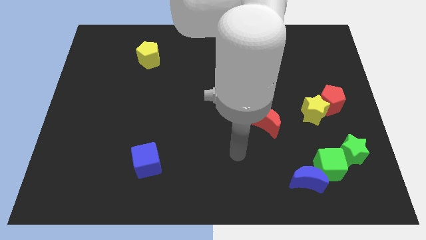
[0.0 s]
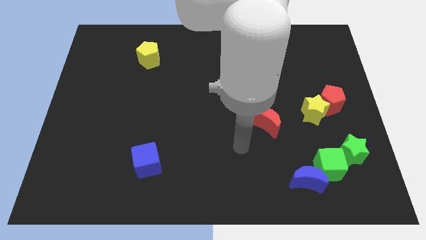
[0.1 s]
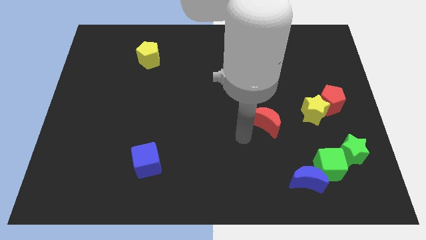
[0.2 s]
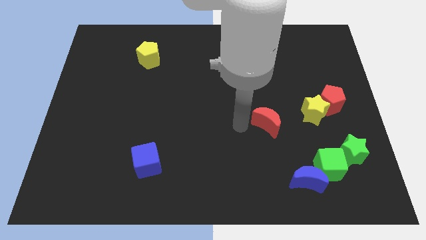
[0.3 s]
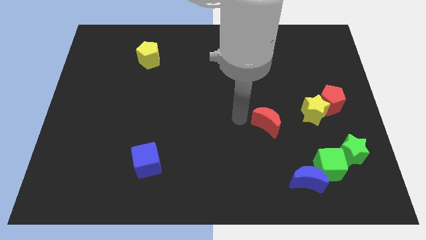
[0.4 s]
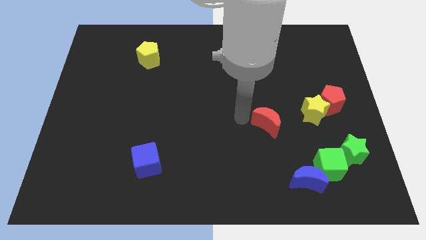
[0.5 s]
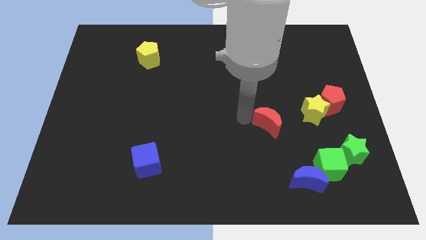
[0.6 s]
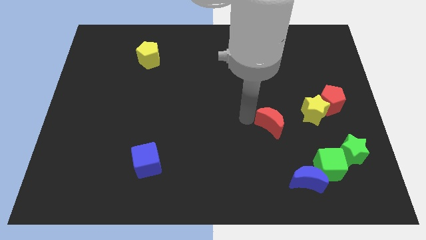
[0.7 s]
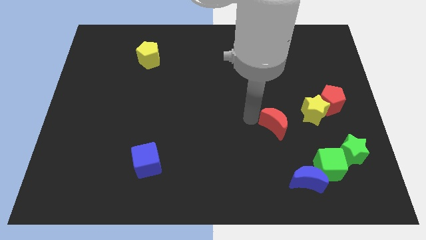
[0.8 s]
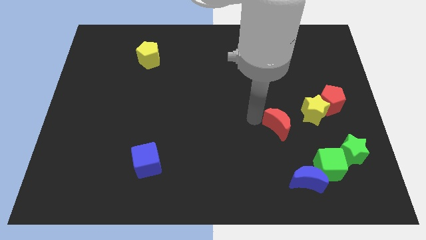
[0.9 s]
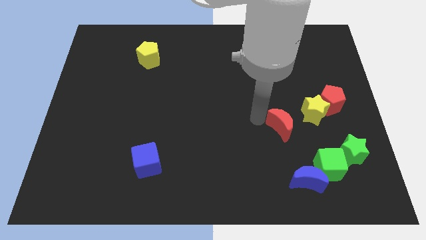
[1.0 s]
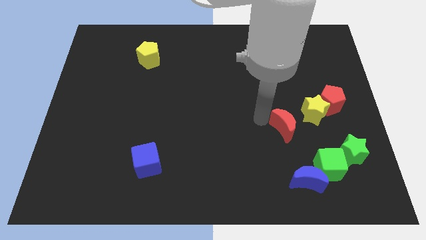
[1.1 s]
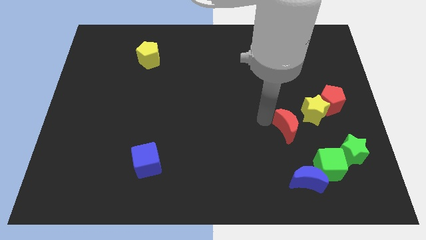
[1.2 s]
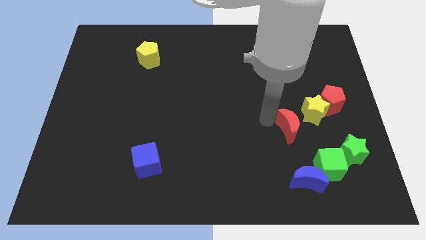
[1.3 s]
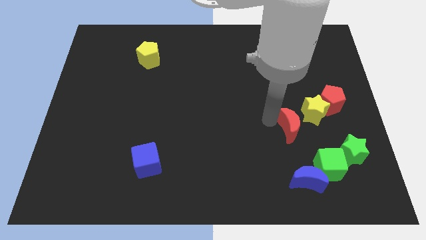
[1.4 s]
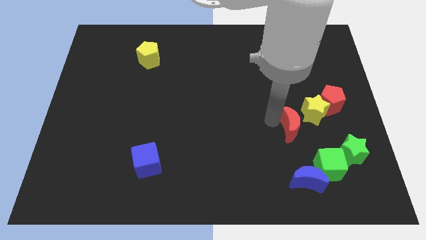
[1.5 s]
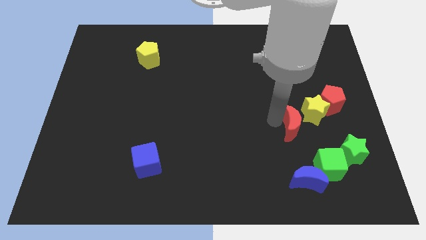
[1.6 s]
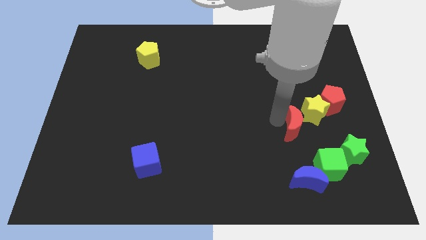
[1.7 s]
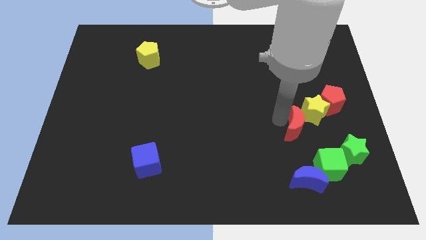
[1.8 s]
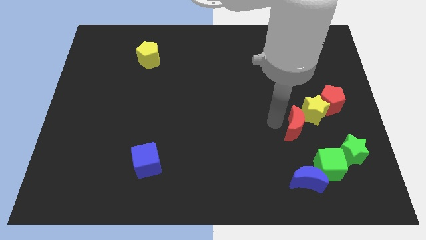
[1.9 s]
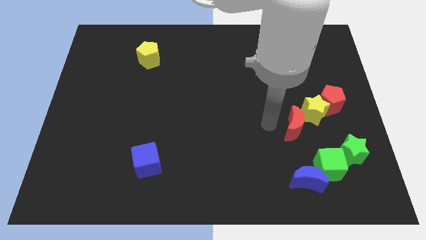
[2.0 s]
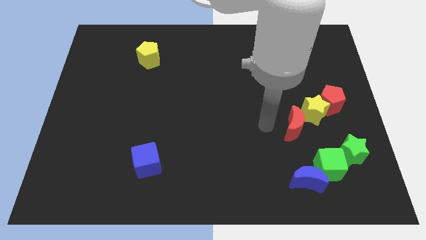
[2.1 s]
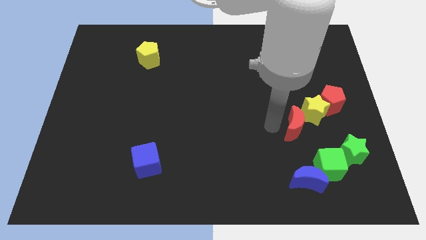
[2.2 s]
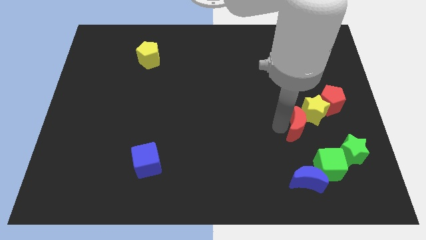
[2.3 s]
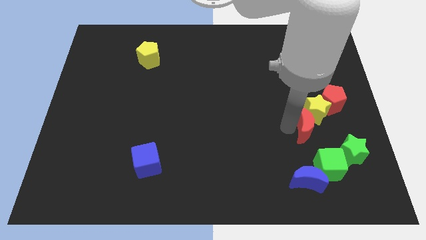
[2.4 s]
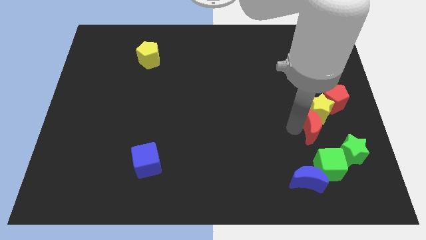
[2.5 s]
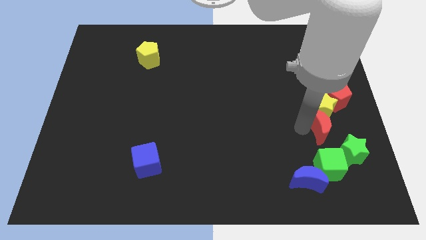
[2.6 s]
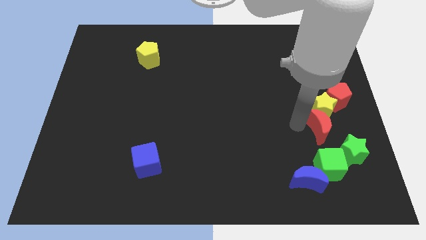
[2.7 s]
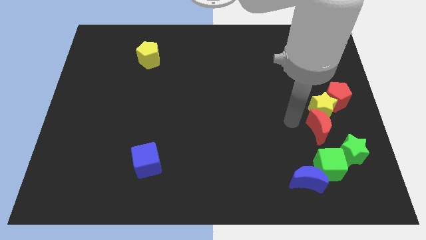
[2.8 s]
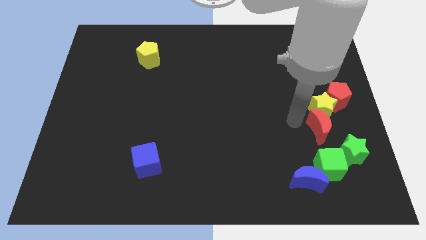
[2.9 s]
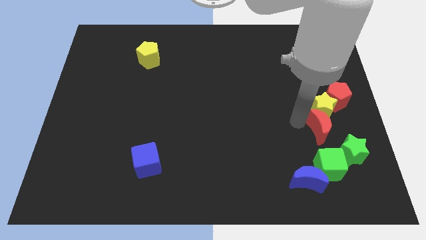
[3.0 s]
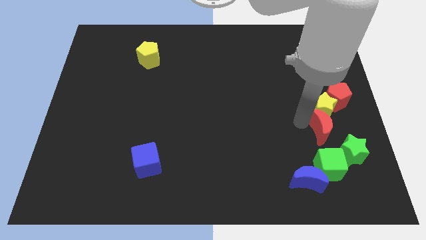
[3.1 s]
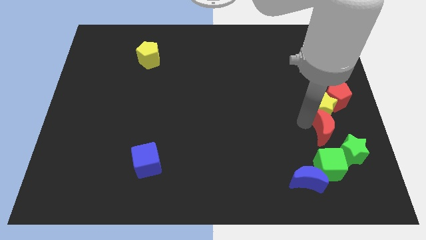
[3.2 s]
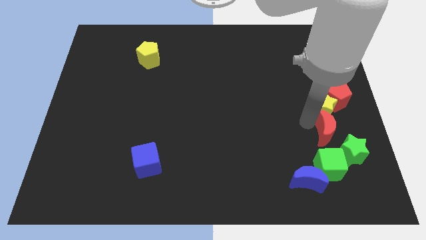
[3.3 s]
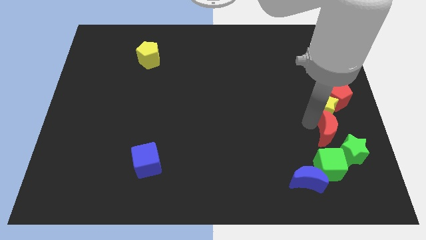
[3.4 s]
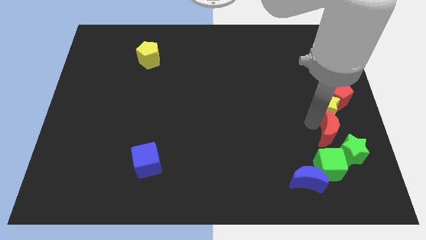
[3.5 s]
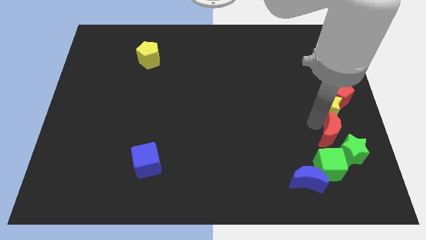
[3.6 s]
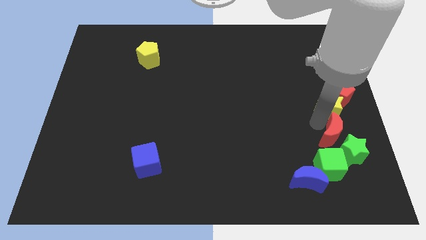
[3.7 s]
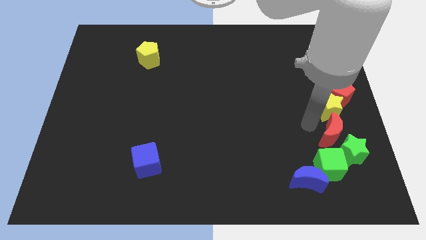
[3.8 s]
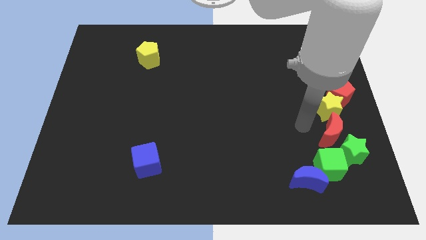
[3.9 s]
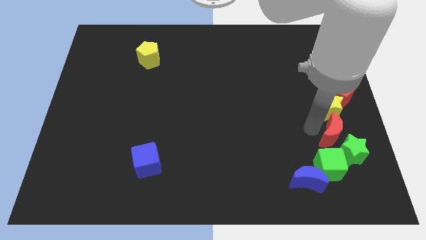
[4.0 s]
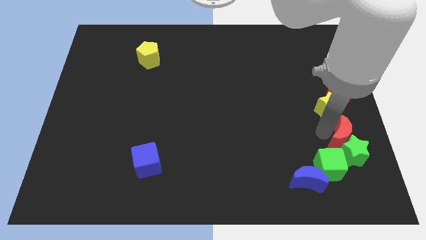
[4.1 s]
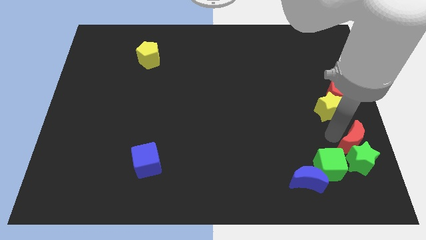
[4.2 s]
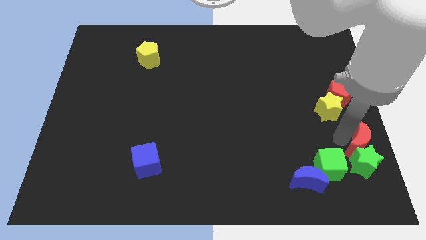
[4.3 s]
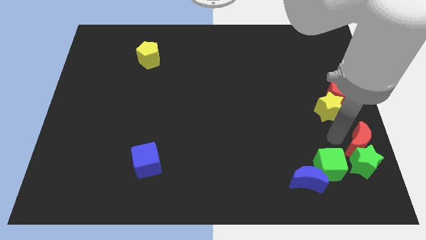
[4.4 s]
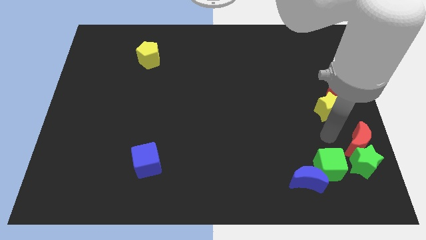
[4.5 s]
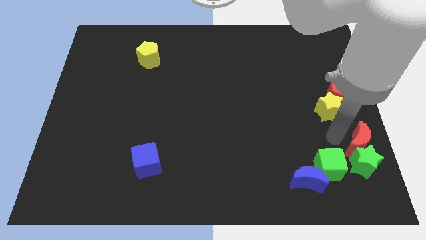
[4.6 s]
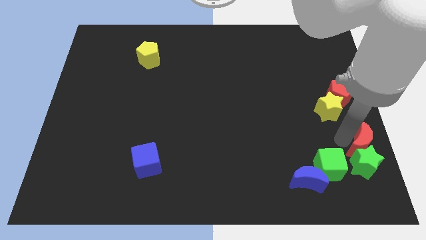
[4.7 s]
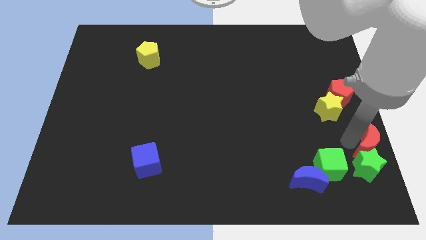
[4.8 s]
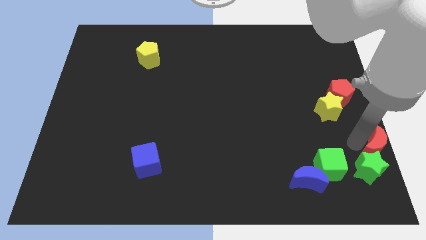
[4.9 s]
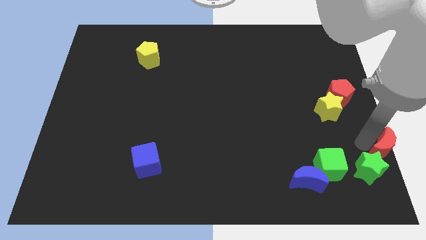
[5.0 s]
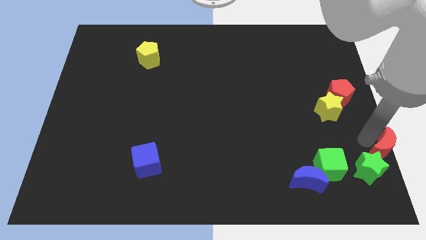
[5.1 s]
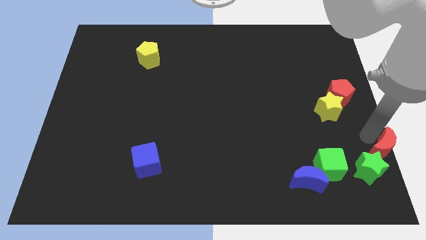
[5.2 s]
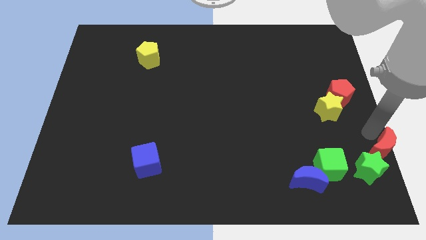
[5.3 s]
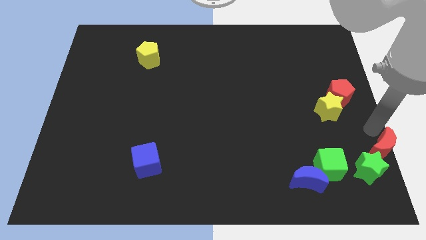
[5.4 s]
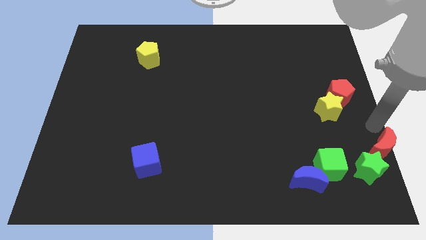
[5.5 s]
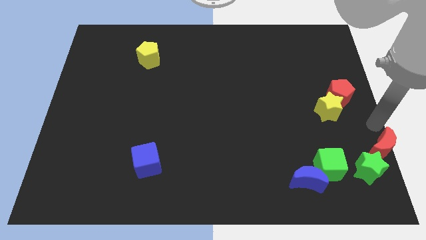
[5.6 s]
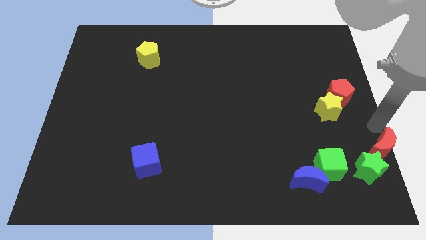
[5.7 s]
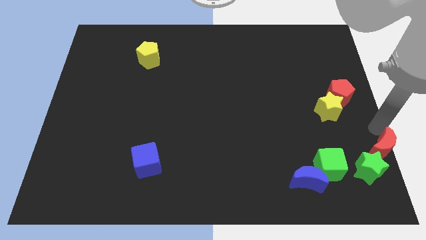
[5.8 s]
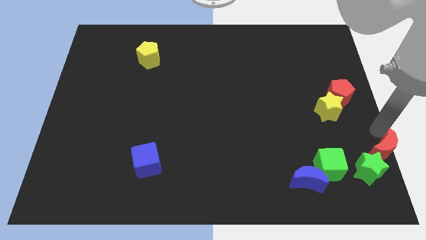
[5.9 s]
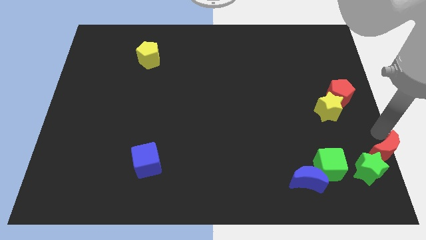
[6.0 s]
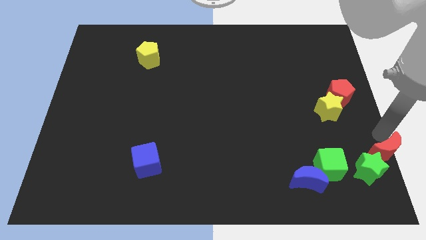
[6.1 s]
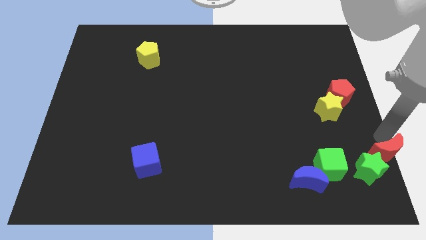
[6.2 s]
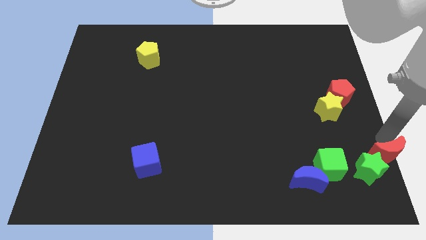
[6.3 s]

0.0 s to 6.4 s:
put the red moon to the lower right corner
